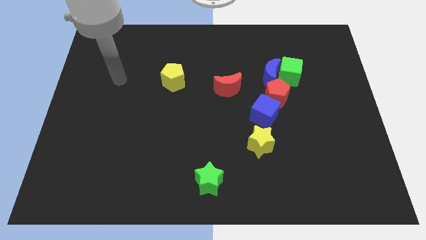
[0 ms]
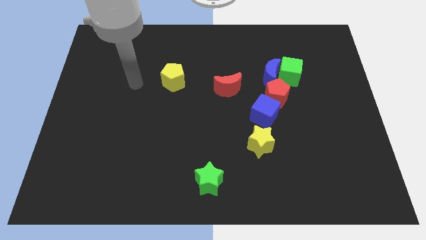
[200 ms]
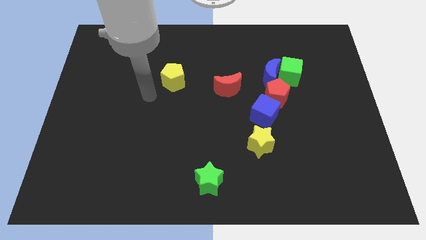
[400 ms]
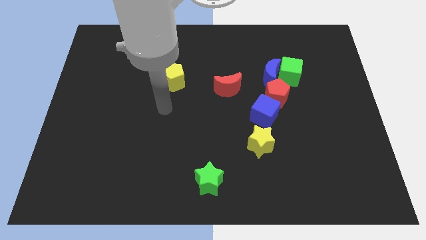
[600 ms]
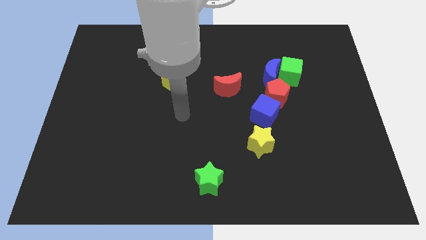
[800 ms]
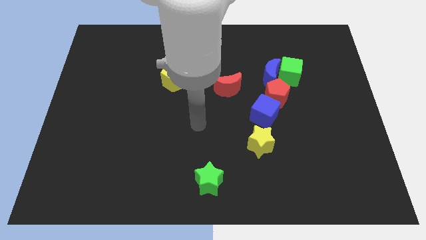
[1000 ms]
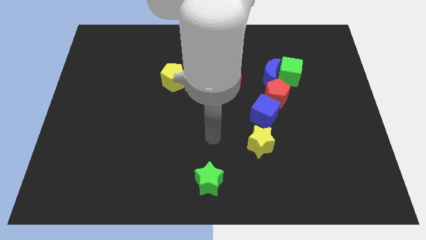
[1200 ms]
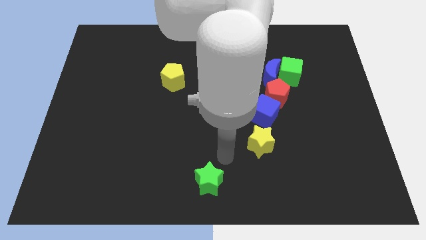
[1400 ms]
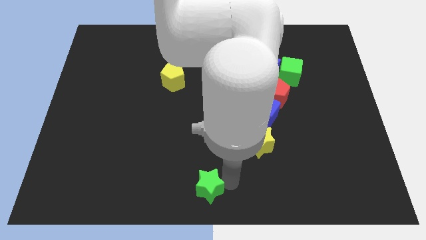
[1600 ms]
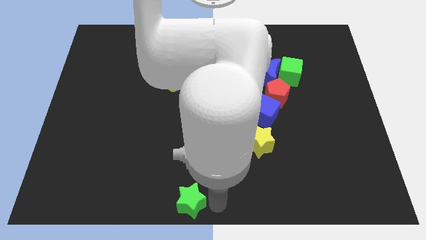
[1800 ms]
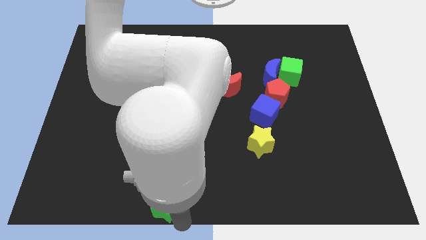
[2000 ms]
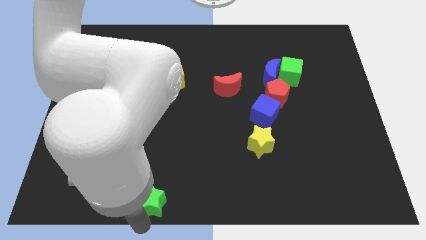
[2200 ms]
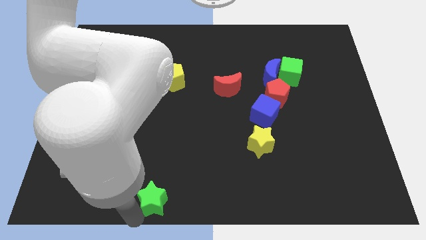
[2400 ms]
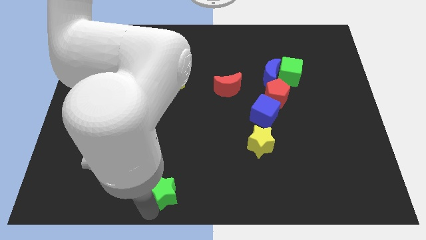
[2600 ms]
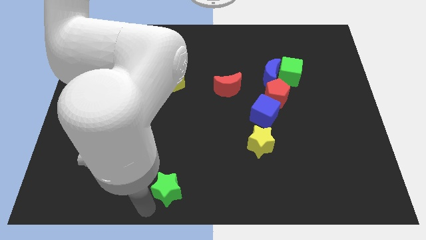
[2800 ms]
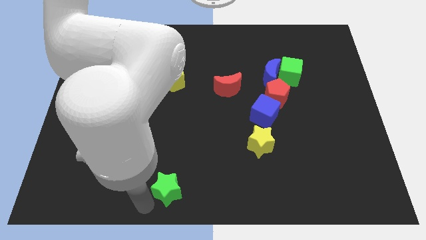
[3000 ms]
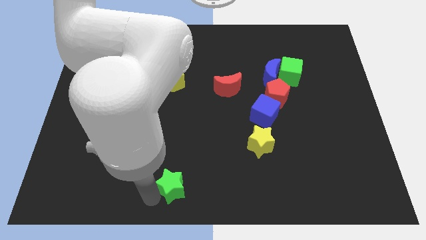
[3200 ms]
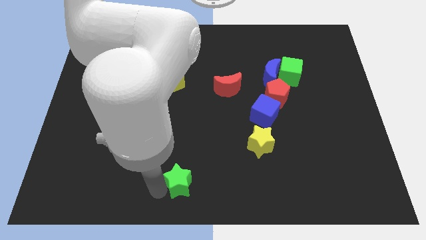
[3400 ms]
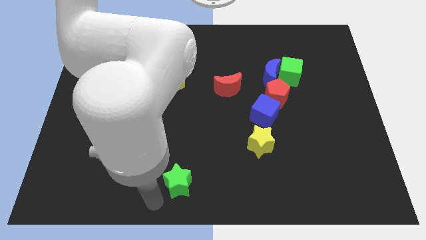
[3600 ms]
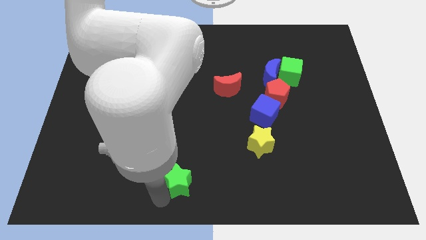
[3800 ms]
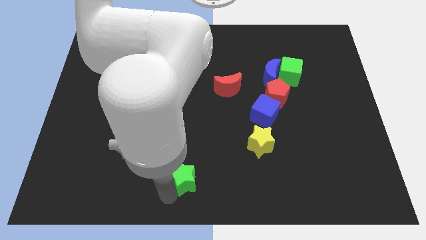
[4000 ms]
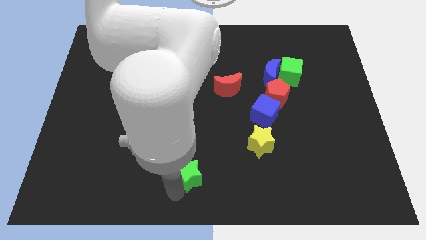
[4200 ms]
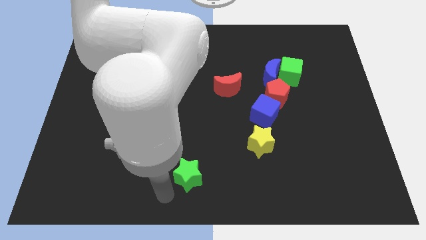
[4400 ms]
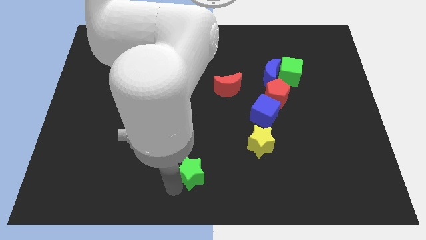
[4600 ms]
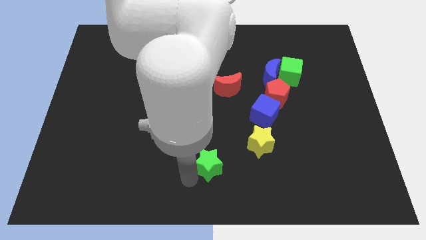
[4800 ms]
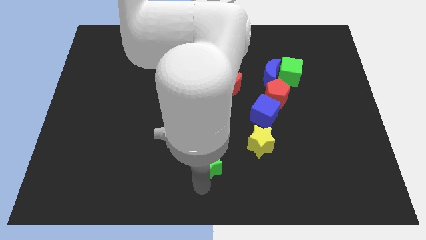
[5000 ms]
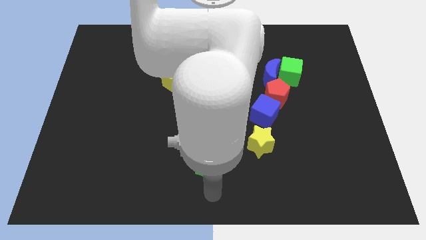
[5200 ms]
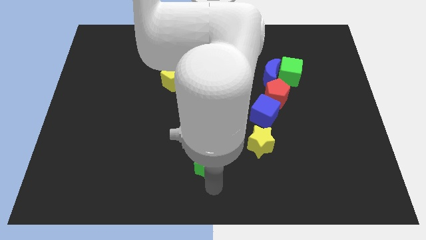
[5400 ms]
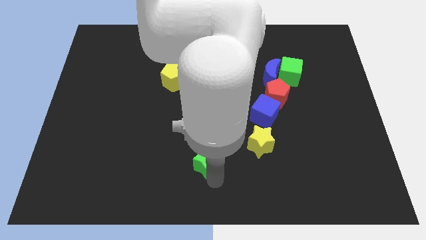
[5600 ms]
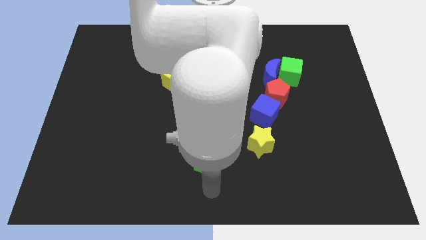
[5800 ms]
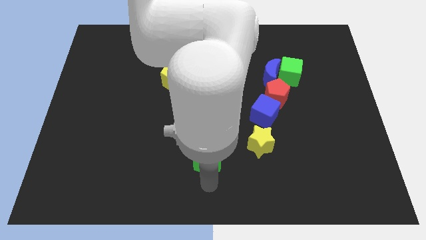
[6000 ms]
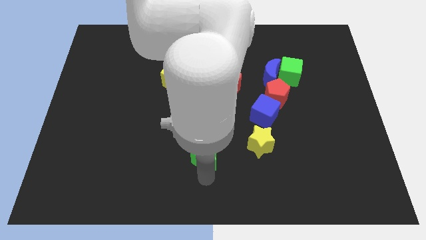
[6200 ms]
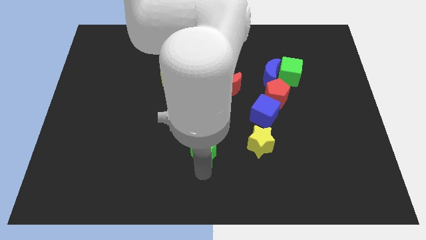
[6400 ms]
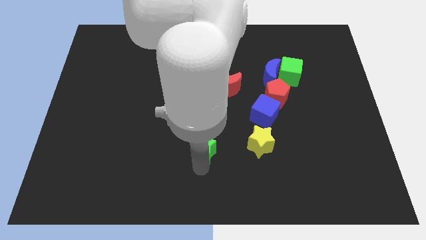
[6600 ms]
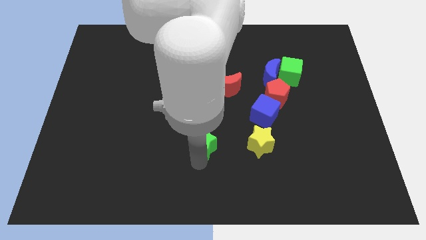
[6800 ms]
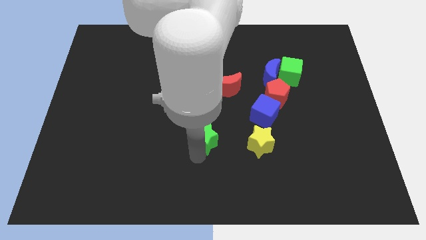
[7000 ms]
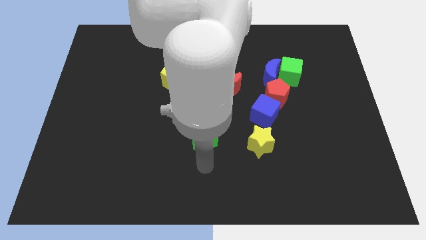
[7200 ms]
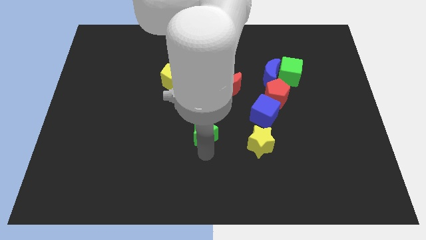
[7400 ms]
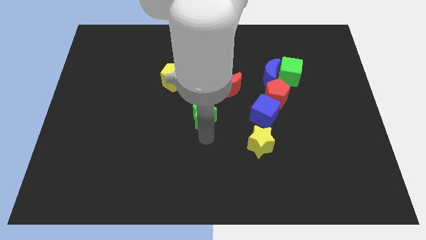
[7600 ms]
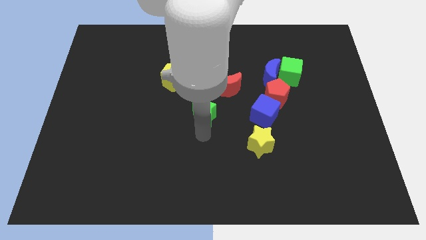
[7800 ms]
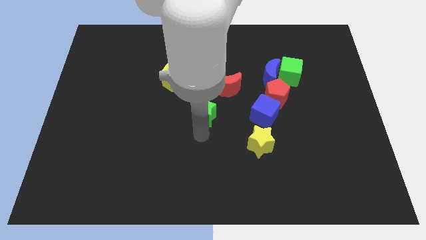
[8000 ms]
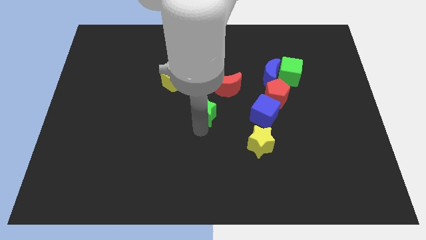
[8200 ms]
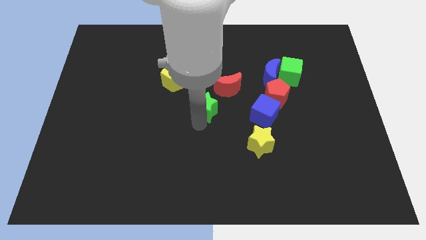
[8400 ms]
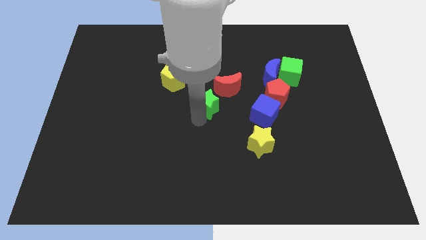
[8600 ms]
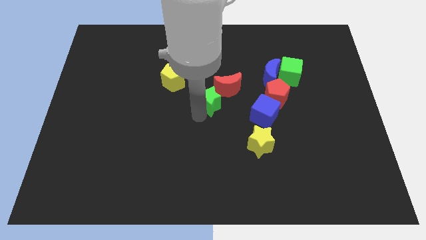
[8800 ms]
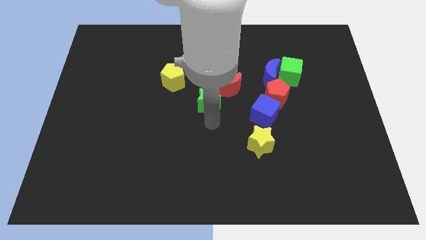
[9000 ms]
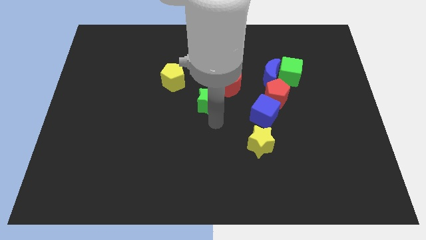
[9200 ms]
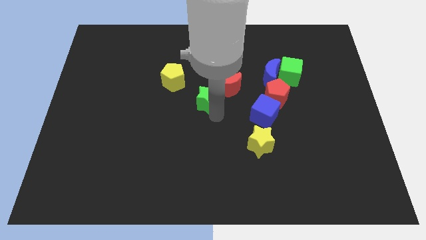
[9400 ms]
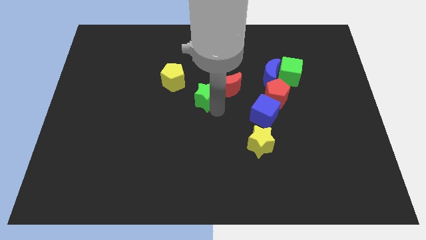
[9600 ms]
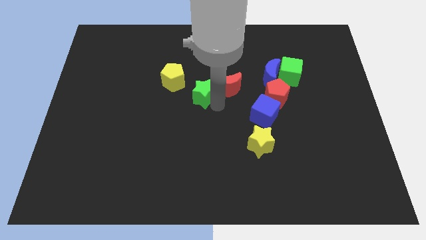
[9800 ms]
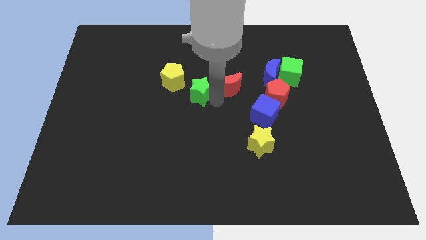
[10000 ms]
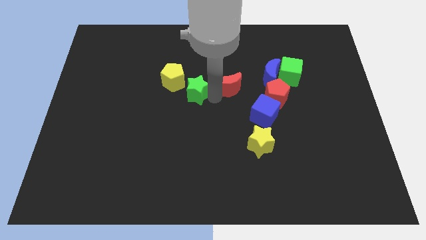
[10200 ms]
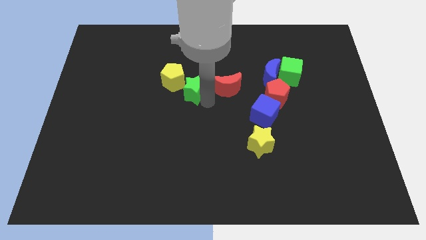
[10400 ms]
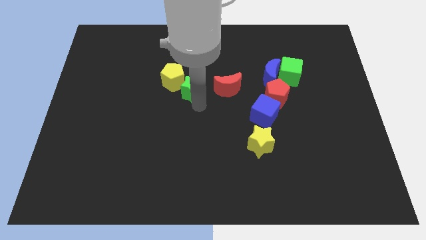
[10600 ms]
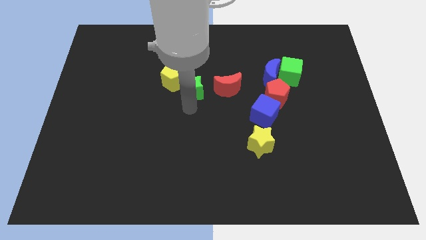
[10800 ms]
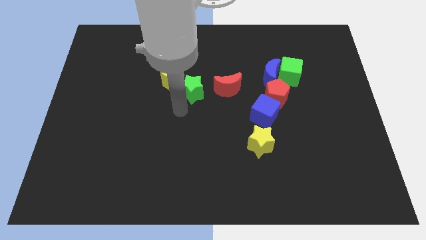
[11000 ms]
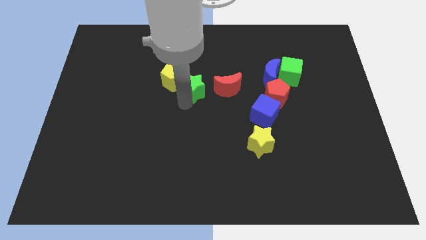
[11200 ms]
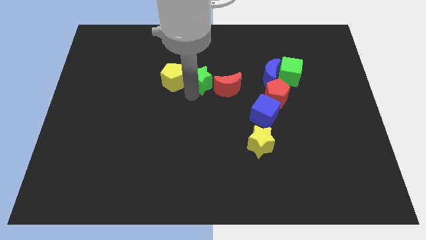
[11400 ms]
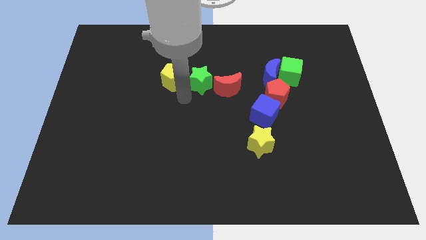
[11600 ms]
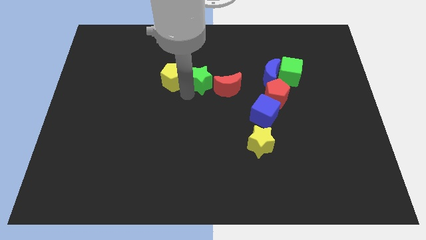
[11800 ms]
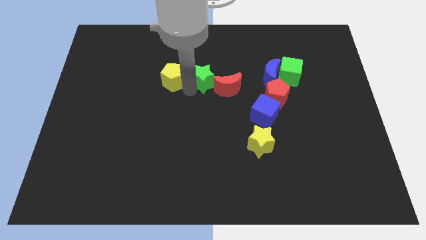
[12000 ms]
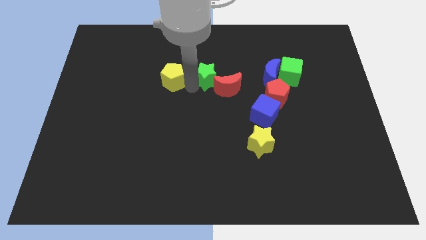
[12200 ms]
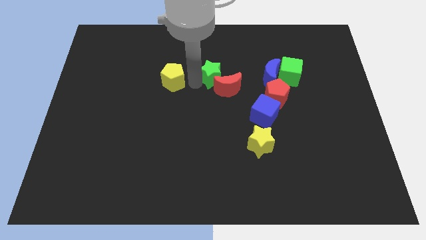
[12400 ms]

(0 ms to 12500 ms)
move the green star to the top of the red moon

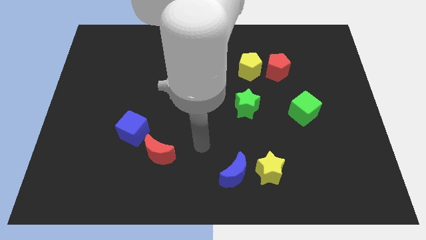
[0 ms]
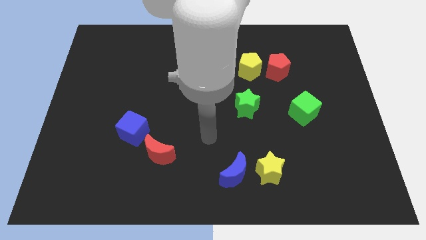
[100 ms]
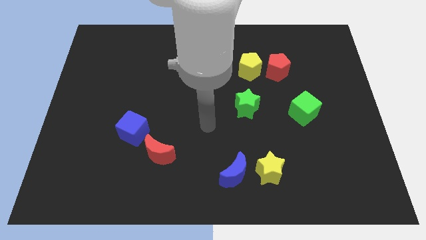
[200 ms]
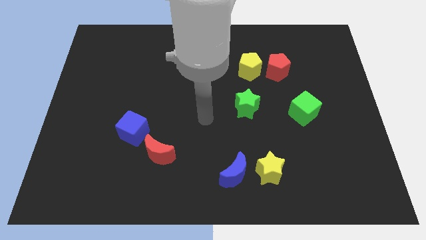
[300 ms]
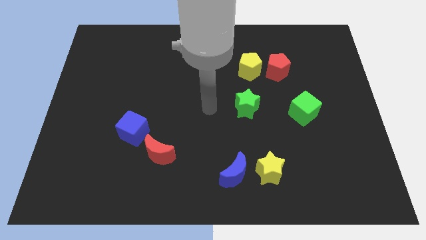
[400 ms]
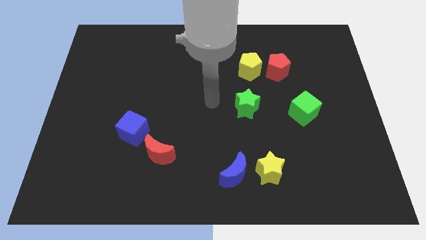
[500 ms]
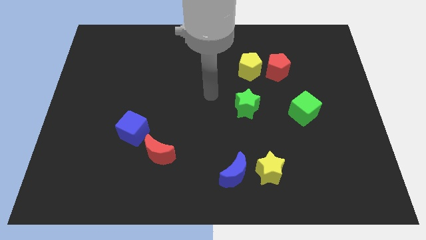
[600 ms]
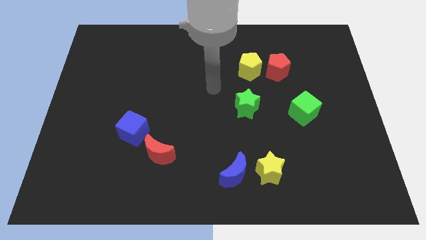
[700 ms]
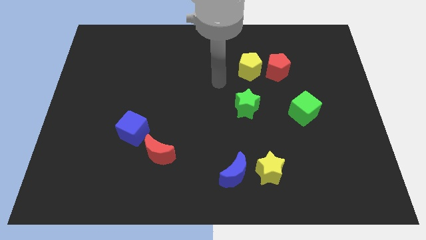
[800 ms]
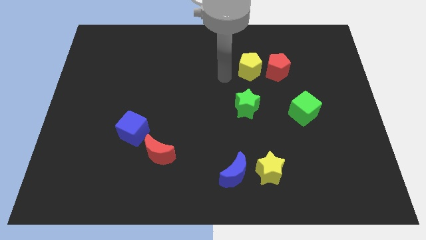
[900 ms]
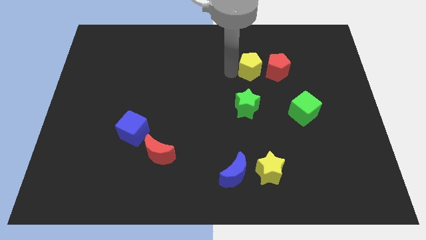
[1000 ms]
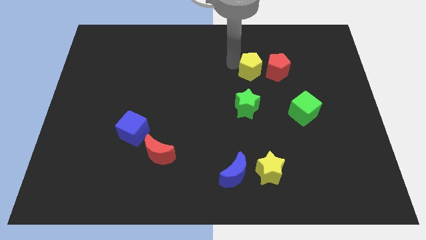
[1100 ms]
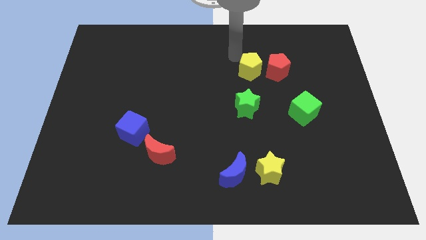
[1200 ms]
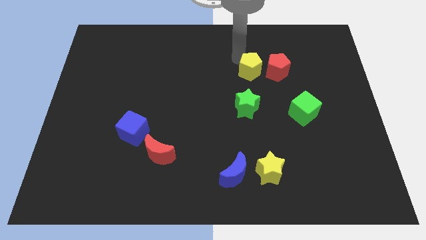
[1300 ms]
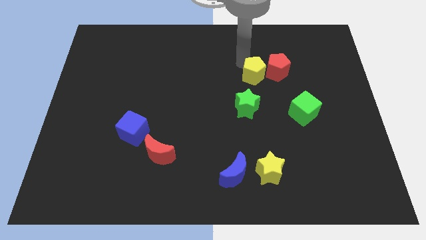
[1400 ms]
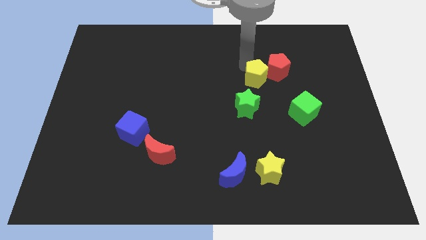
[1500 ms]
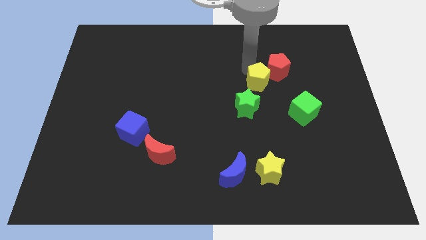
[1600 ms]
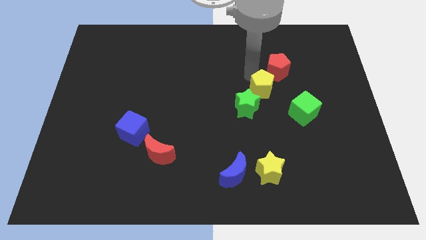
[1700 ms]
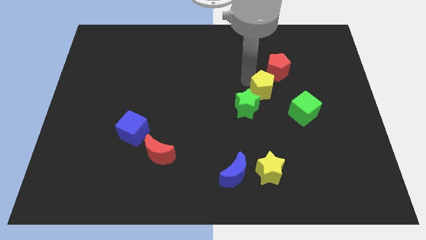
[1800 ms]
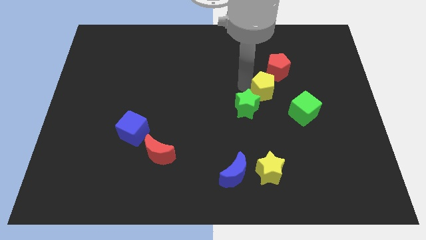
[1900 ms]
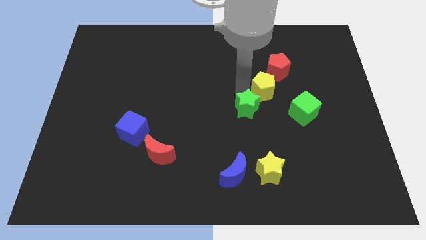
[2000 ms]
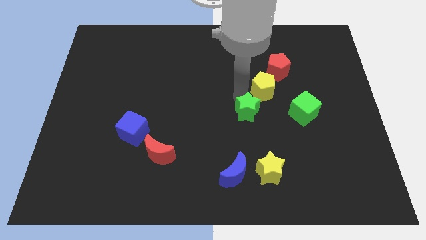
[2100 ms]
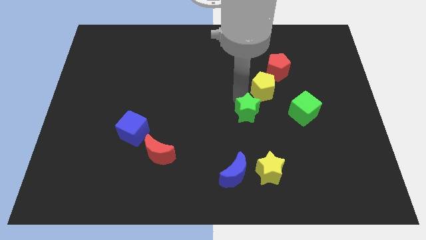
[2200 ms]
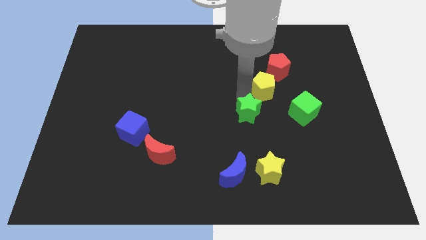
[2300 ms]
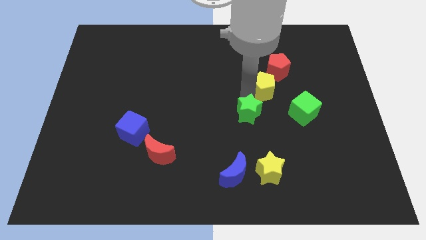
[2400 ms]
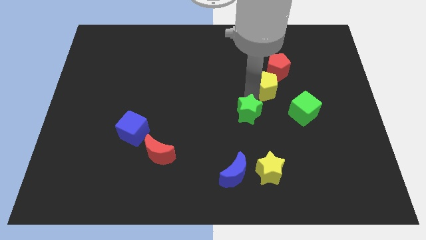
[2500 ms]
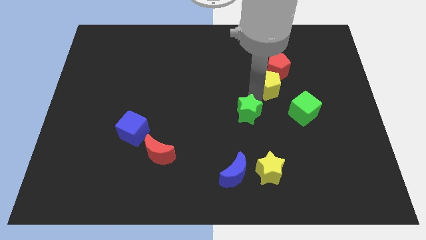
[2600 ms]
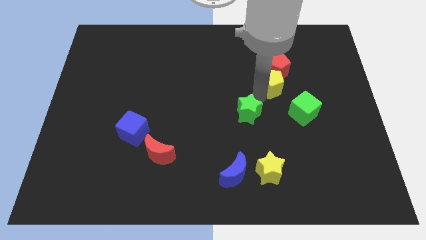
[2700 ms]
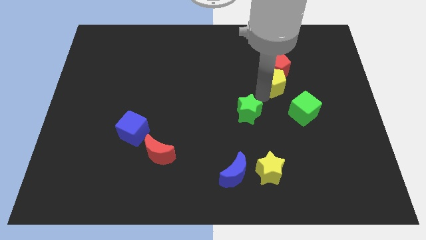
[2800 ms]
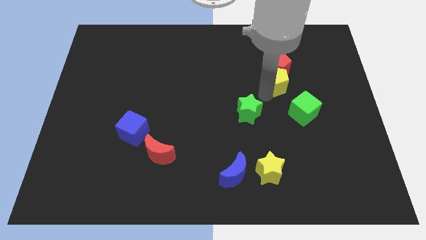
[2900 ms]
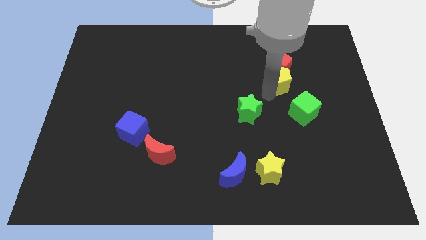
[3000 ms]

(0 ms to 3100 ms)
put the yellow pentagon to the top of the green cube
